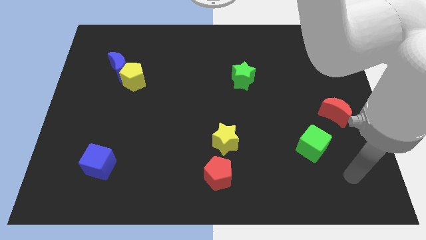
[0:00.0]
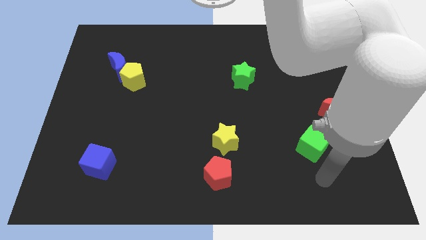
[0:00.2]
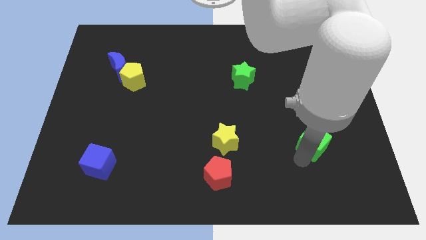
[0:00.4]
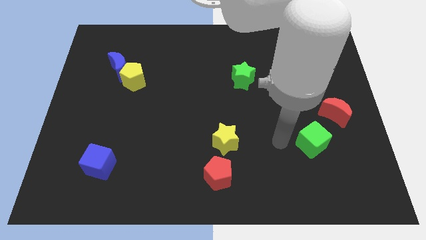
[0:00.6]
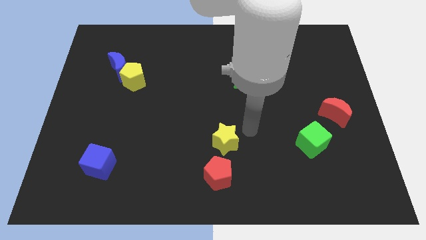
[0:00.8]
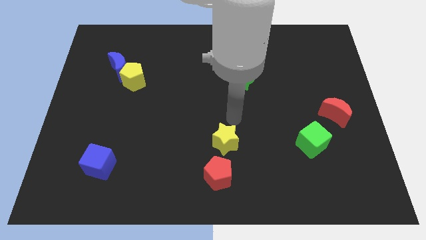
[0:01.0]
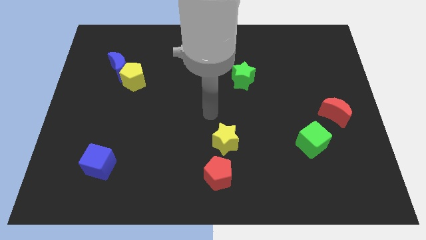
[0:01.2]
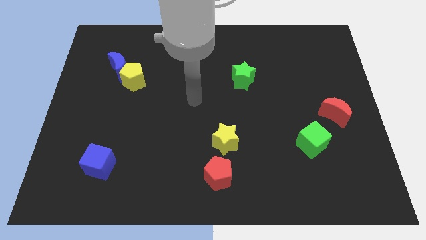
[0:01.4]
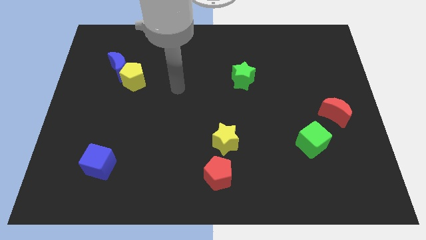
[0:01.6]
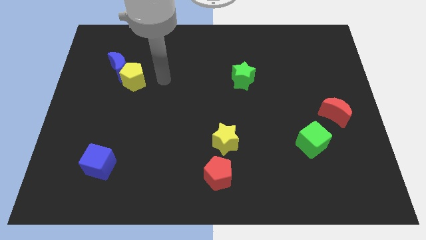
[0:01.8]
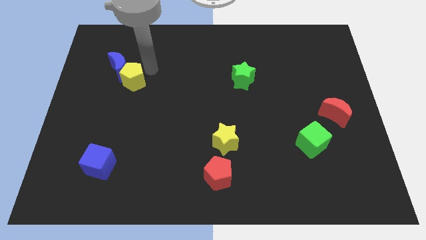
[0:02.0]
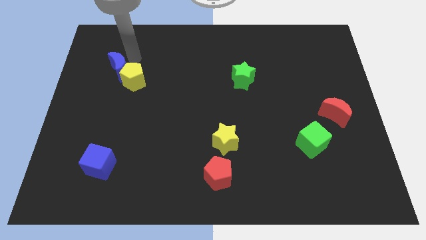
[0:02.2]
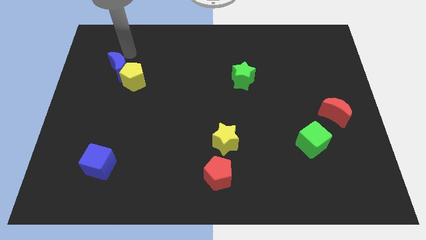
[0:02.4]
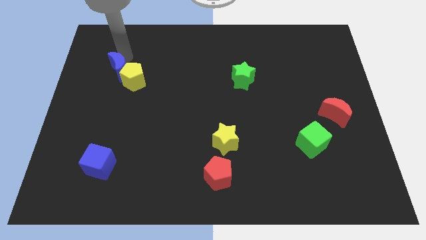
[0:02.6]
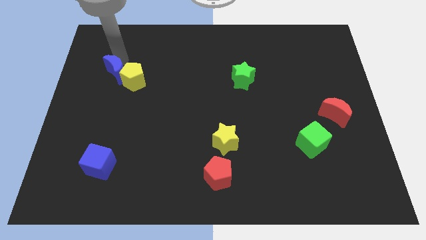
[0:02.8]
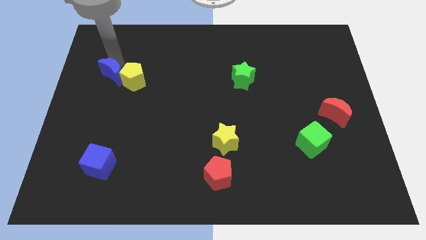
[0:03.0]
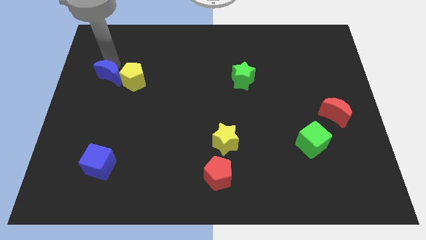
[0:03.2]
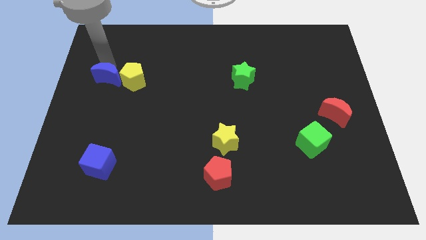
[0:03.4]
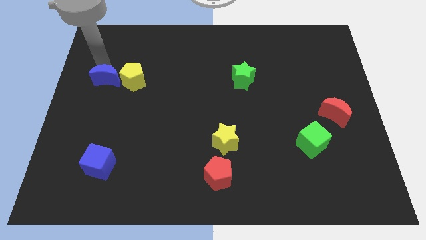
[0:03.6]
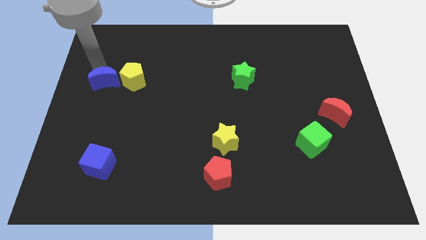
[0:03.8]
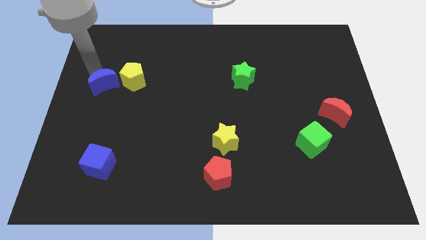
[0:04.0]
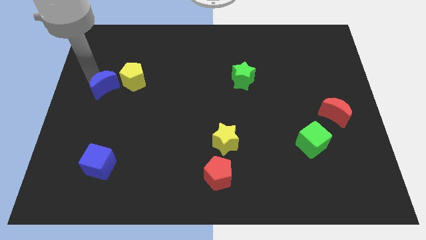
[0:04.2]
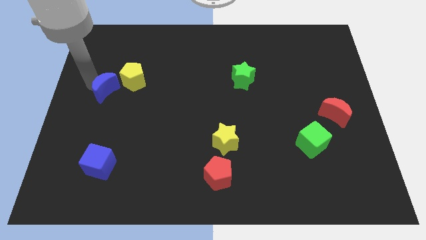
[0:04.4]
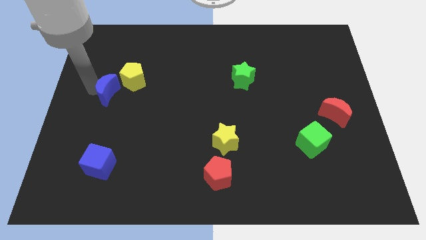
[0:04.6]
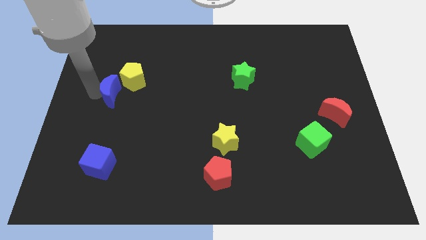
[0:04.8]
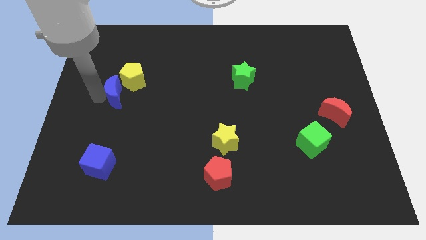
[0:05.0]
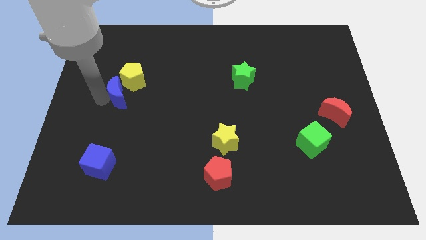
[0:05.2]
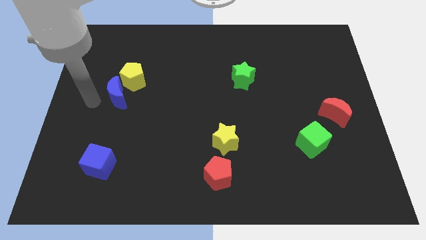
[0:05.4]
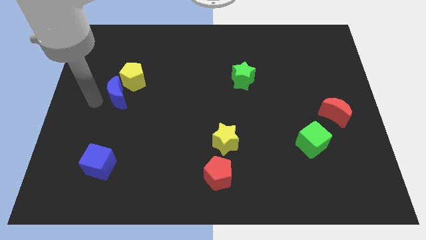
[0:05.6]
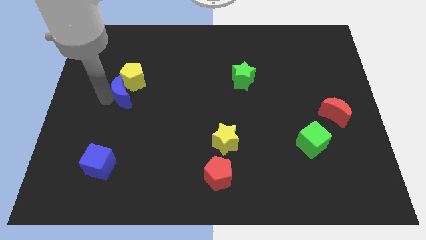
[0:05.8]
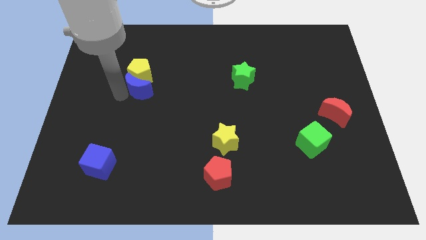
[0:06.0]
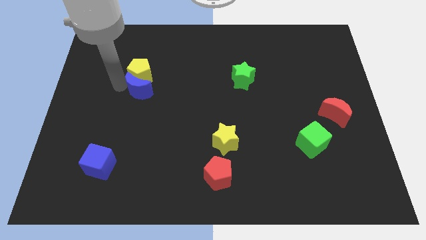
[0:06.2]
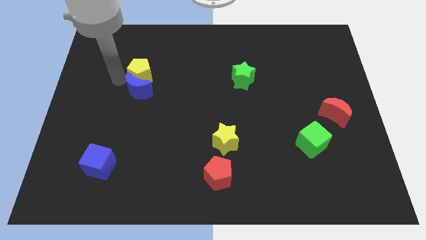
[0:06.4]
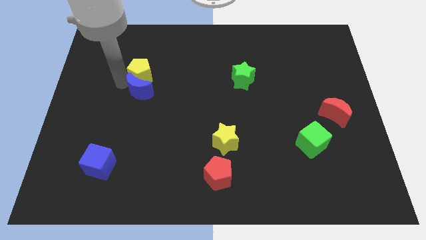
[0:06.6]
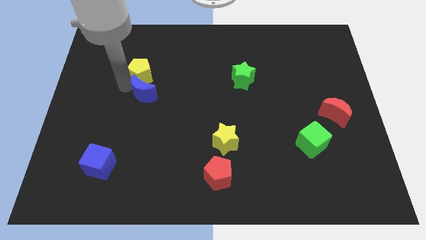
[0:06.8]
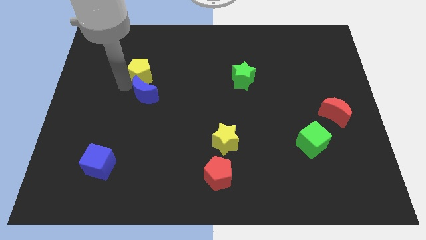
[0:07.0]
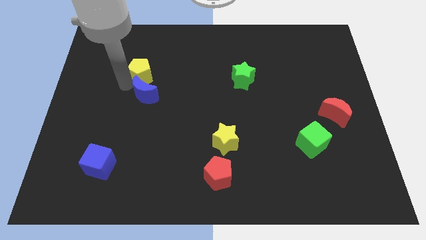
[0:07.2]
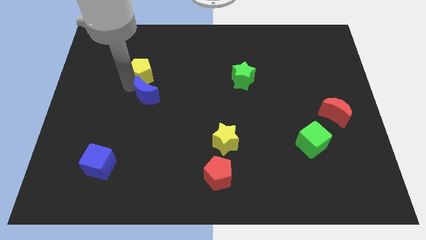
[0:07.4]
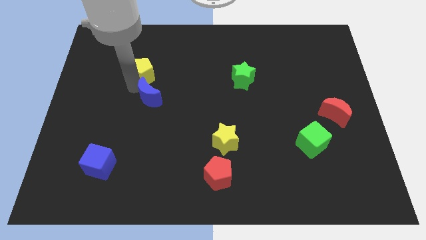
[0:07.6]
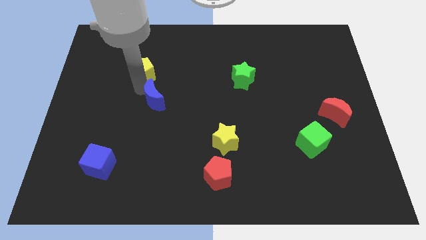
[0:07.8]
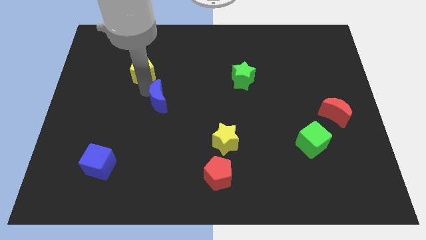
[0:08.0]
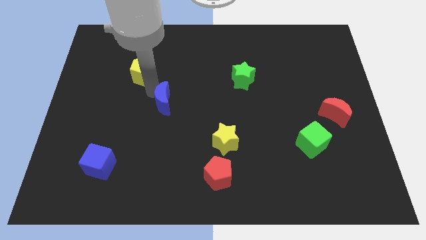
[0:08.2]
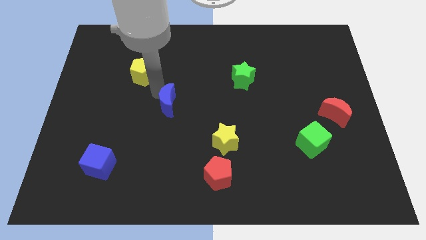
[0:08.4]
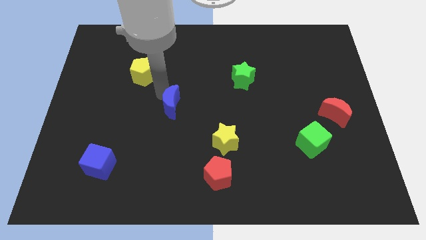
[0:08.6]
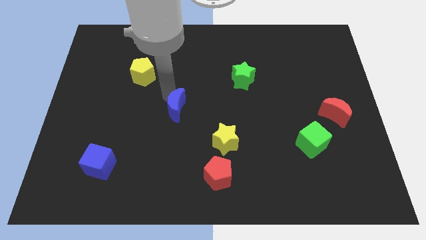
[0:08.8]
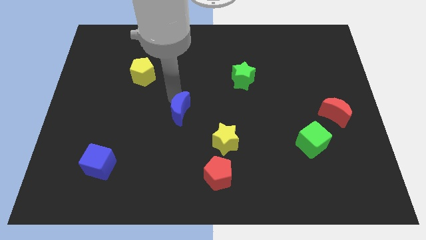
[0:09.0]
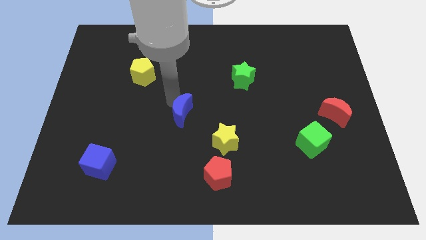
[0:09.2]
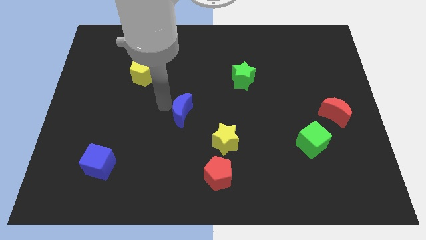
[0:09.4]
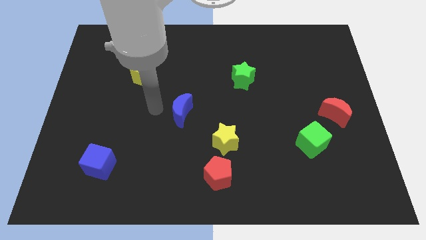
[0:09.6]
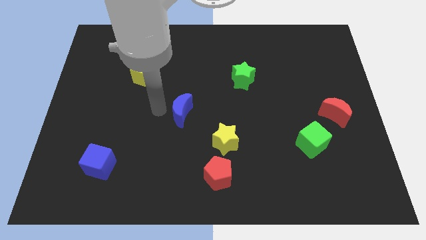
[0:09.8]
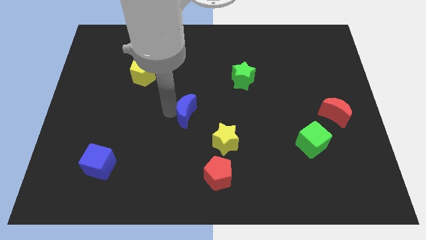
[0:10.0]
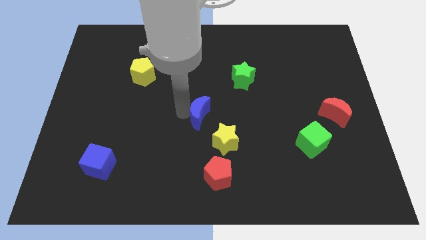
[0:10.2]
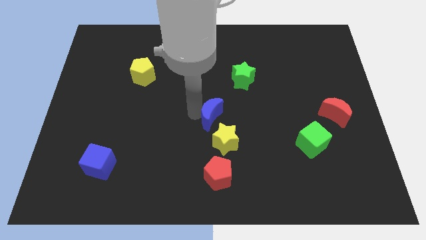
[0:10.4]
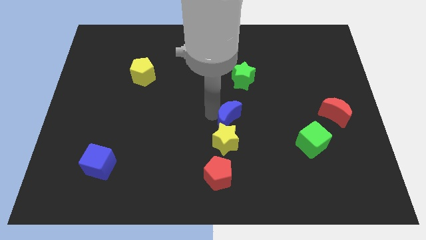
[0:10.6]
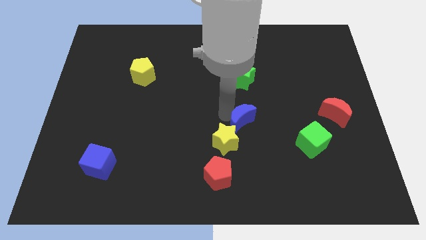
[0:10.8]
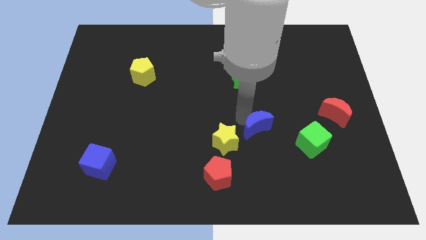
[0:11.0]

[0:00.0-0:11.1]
put the blue moon to the left side of the green cube

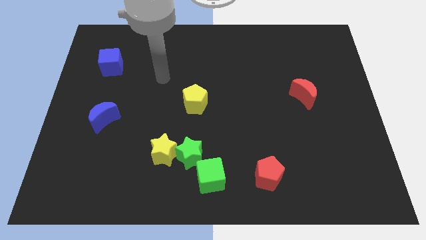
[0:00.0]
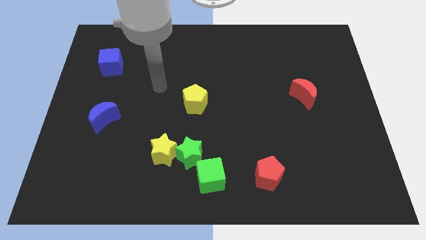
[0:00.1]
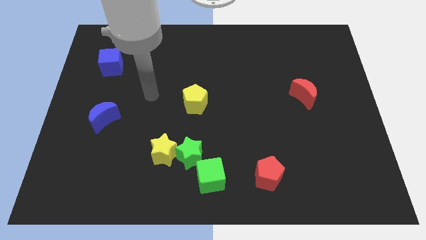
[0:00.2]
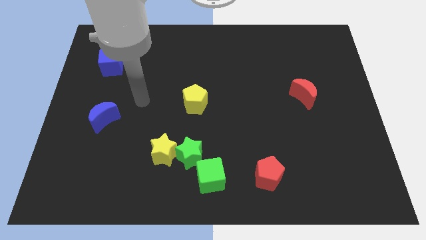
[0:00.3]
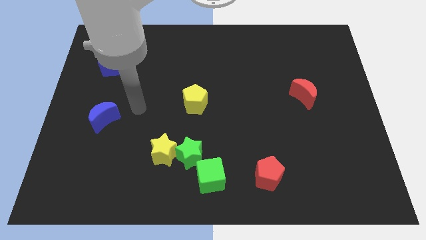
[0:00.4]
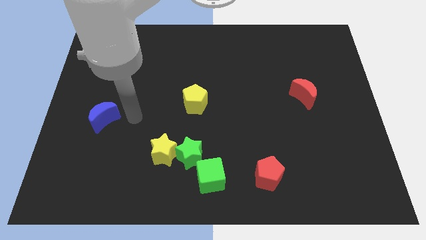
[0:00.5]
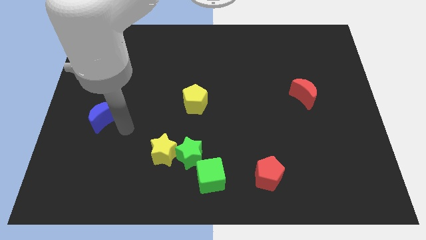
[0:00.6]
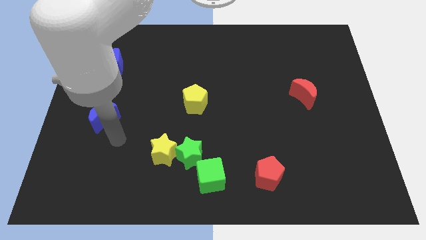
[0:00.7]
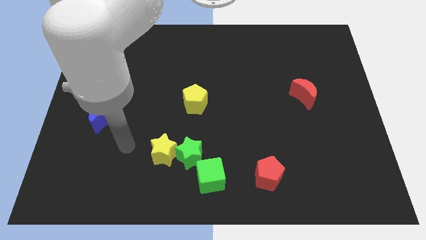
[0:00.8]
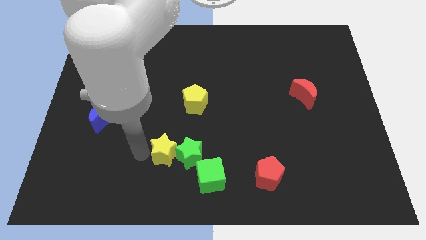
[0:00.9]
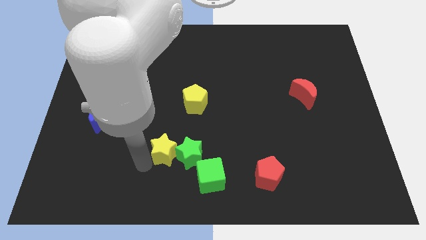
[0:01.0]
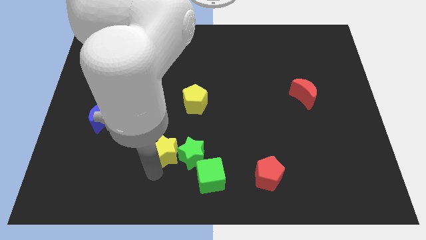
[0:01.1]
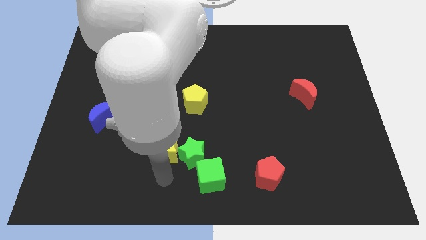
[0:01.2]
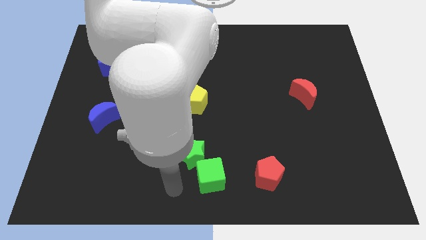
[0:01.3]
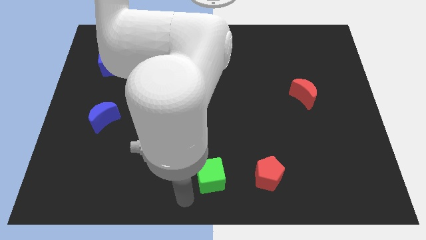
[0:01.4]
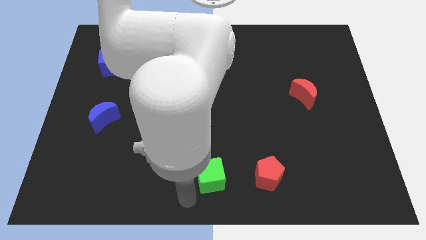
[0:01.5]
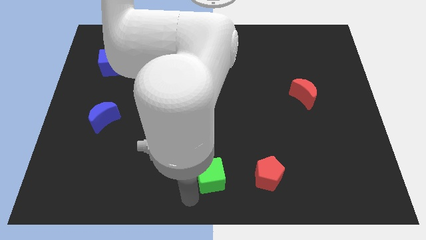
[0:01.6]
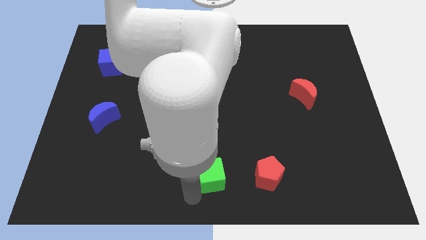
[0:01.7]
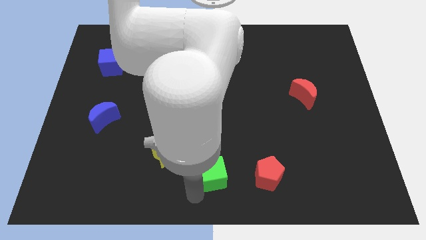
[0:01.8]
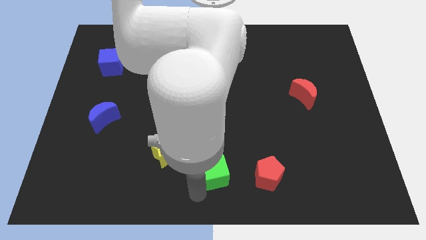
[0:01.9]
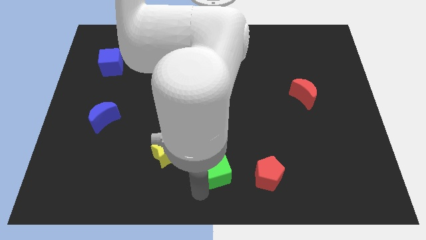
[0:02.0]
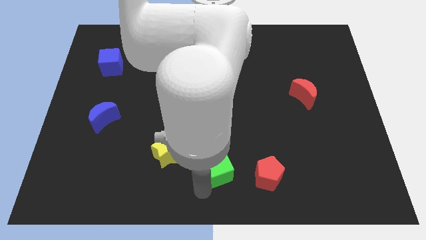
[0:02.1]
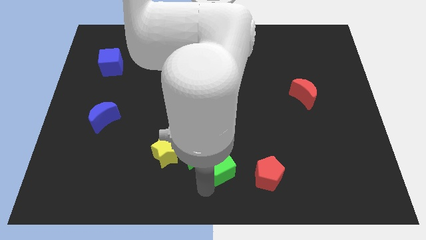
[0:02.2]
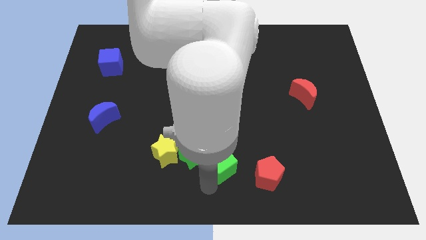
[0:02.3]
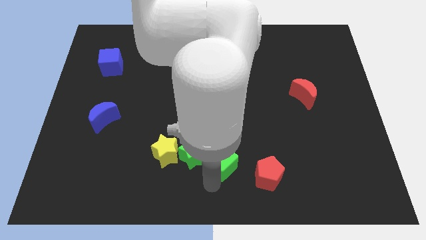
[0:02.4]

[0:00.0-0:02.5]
slide the green cube to the top left side of the red pentagon
